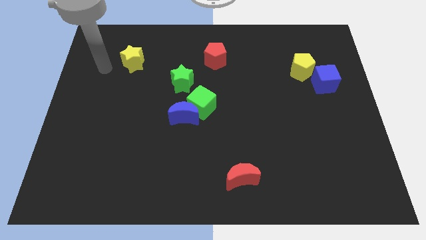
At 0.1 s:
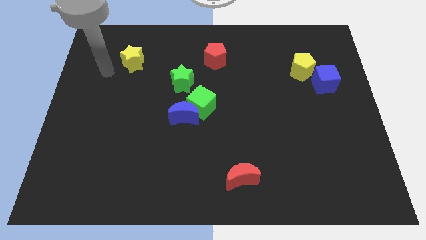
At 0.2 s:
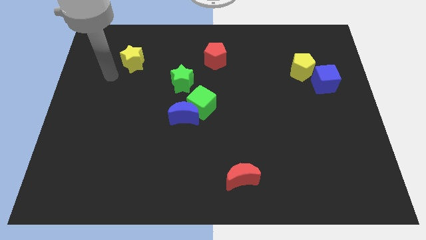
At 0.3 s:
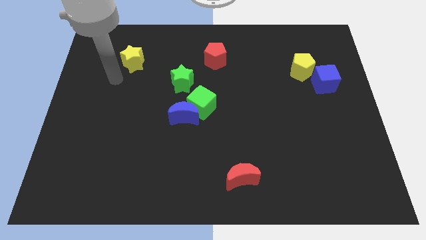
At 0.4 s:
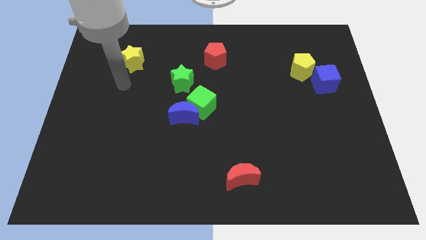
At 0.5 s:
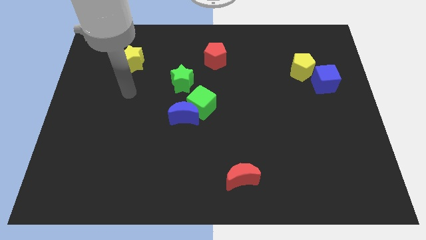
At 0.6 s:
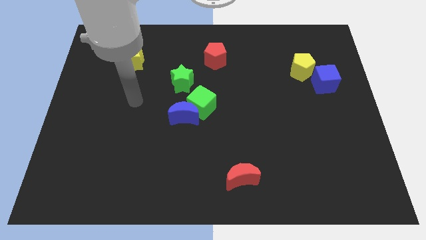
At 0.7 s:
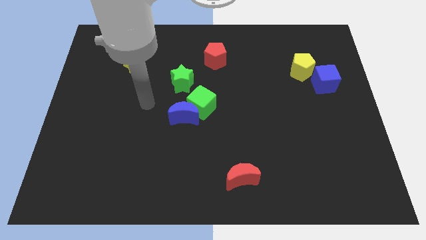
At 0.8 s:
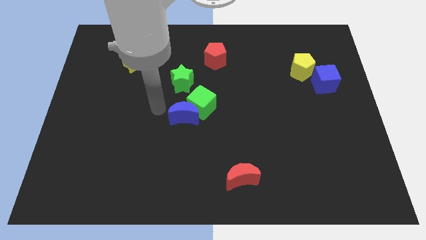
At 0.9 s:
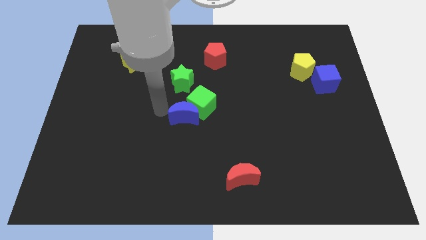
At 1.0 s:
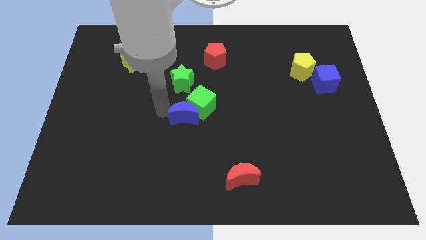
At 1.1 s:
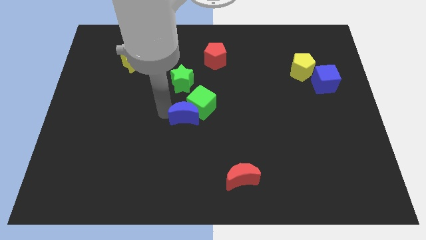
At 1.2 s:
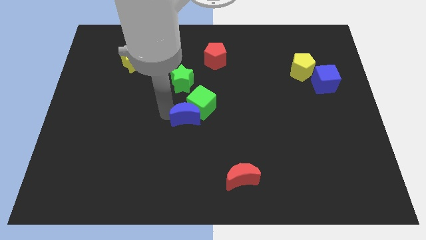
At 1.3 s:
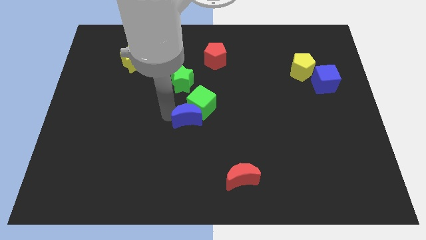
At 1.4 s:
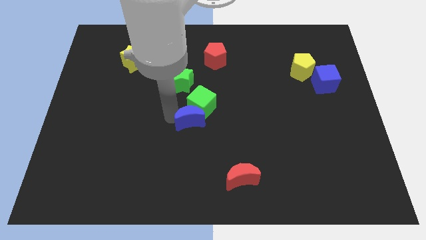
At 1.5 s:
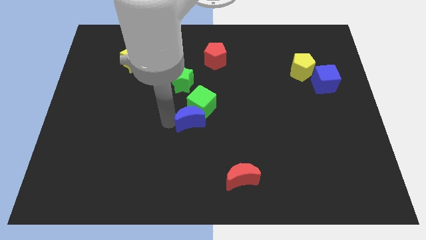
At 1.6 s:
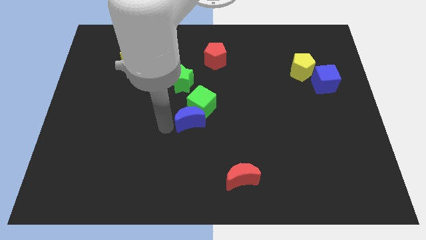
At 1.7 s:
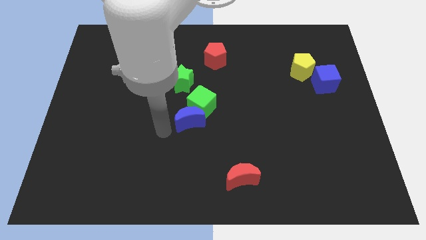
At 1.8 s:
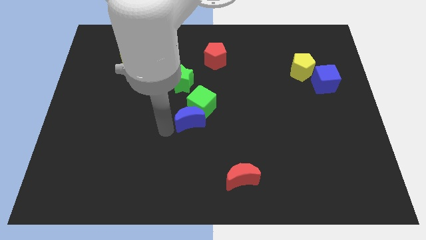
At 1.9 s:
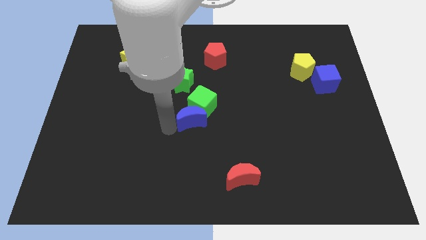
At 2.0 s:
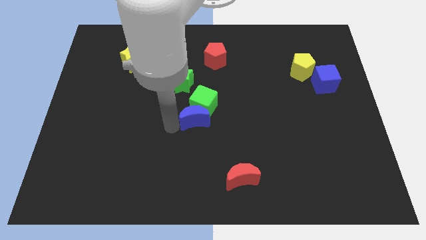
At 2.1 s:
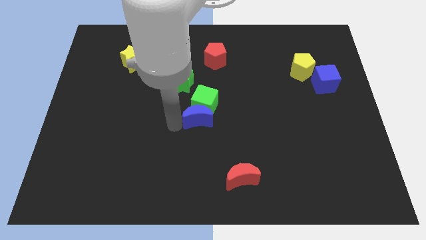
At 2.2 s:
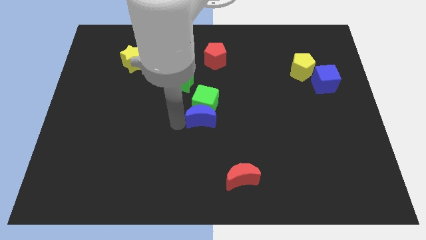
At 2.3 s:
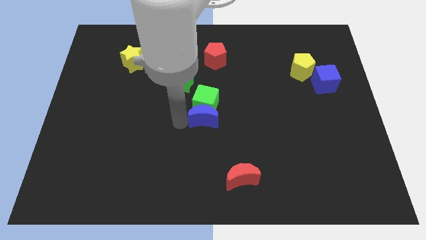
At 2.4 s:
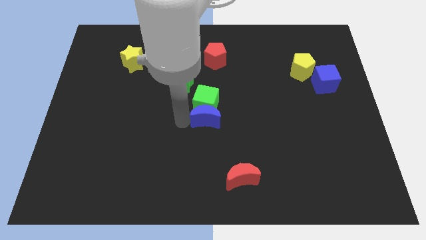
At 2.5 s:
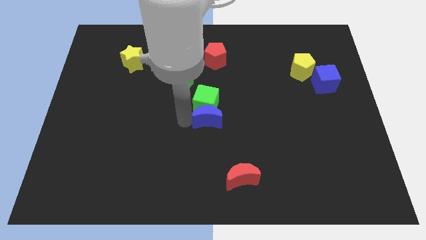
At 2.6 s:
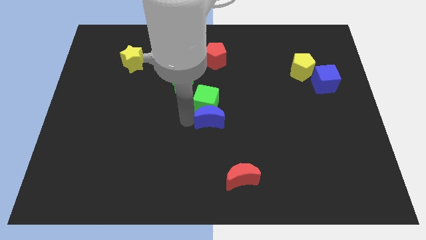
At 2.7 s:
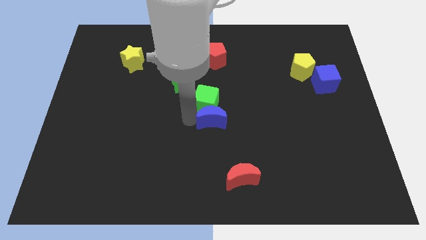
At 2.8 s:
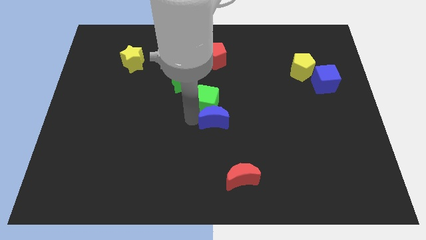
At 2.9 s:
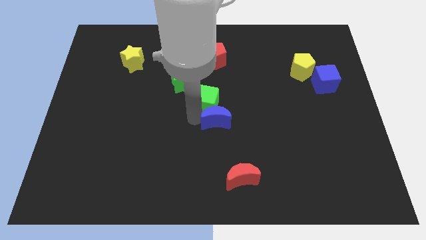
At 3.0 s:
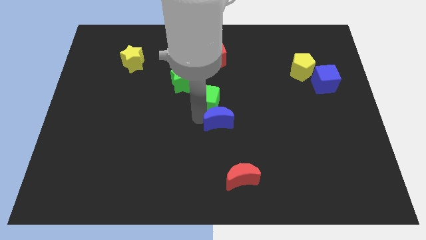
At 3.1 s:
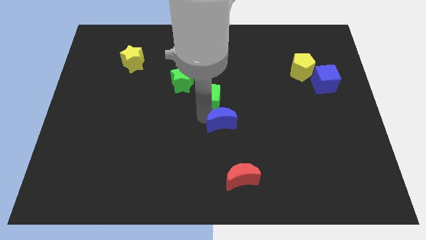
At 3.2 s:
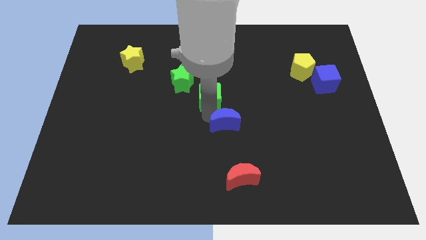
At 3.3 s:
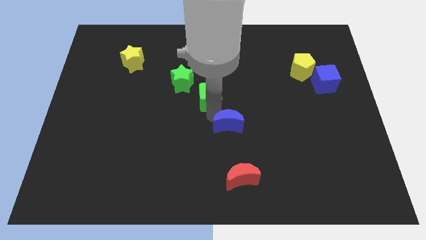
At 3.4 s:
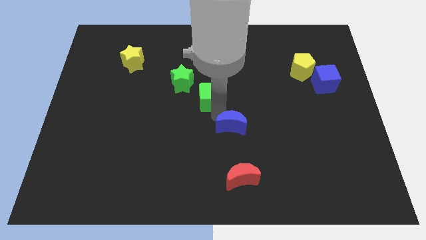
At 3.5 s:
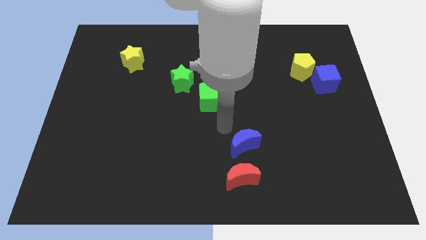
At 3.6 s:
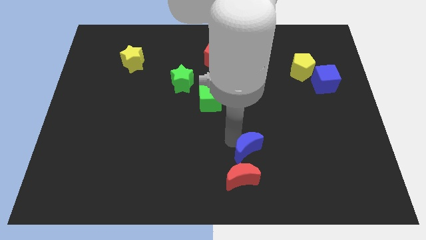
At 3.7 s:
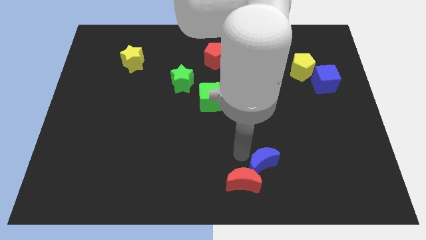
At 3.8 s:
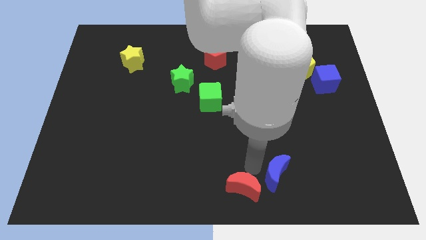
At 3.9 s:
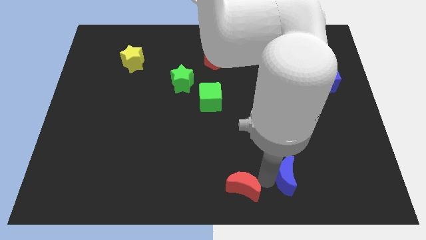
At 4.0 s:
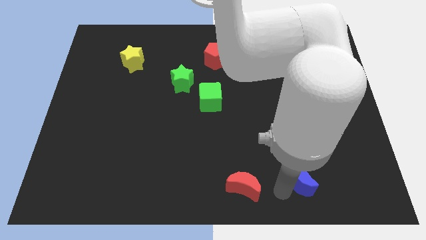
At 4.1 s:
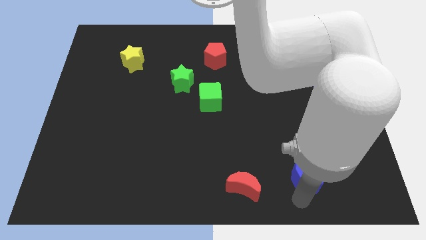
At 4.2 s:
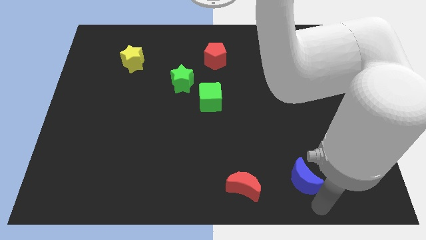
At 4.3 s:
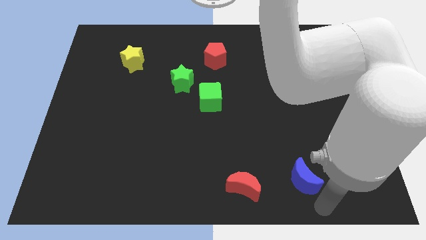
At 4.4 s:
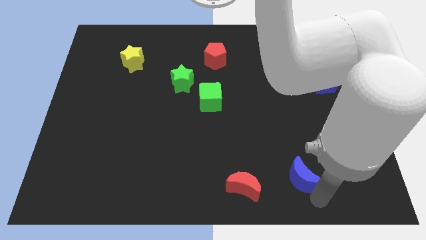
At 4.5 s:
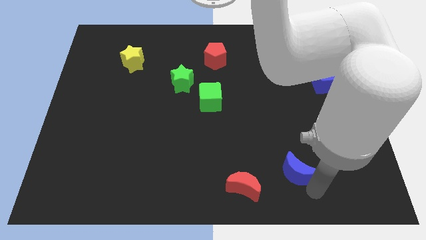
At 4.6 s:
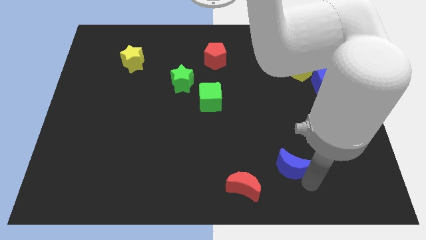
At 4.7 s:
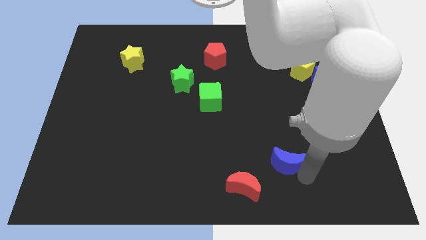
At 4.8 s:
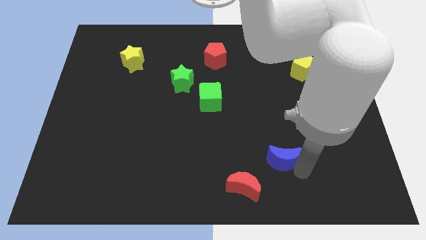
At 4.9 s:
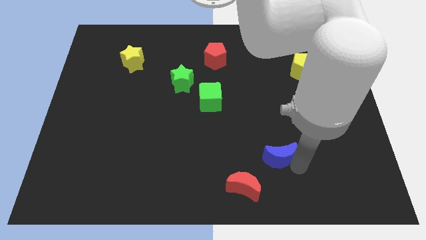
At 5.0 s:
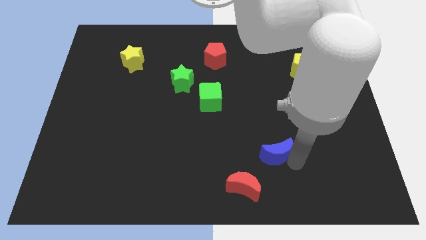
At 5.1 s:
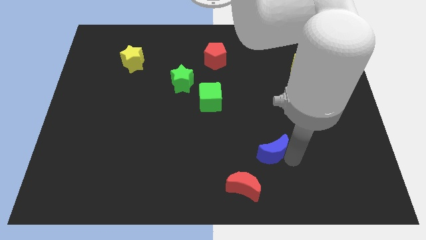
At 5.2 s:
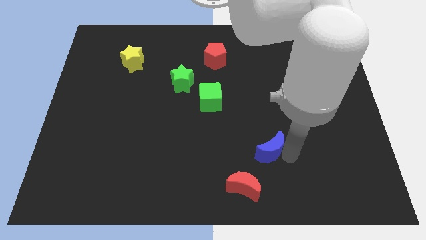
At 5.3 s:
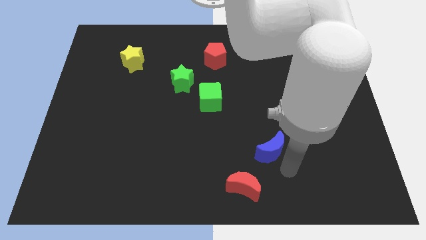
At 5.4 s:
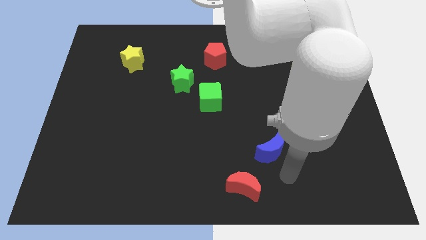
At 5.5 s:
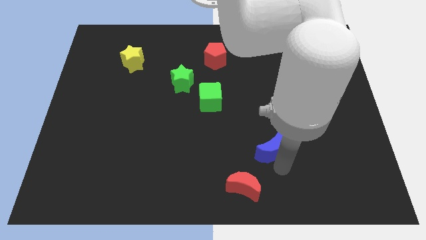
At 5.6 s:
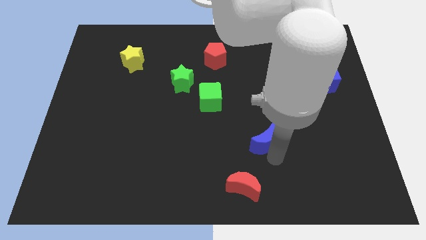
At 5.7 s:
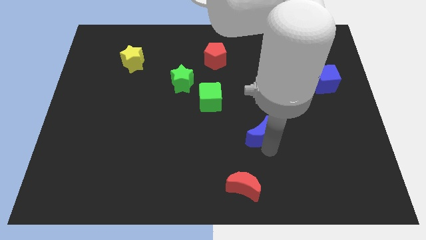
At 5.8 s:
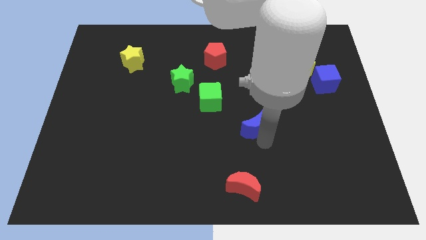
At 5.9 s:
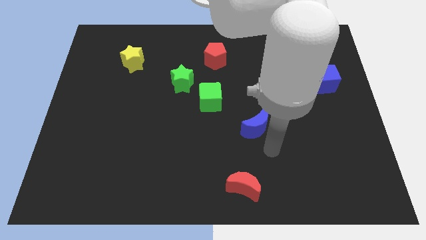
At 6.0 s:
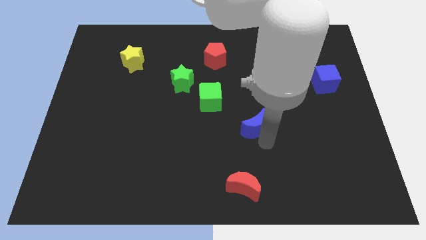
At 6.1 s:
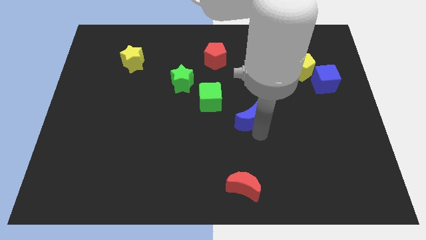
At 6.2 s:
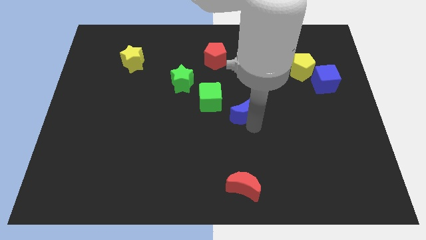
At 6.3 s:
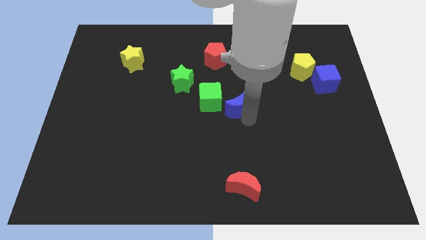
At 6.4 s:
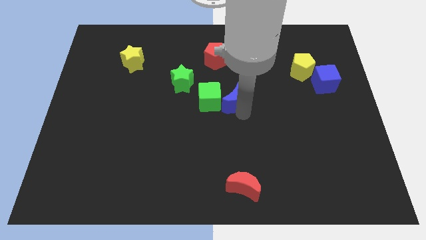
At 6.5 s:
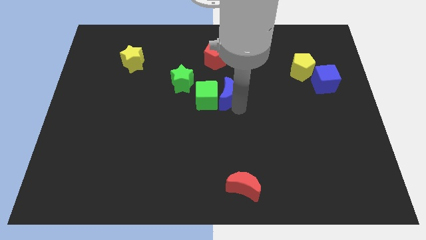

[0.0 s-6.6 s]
slide the blue moon right of the green star

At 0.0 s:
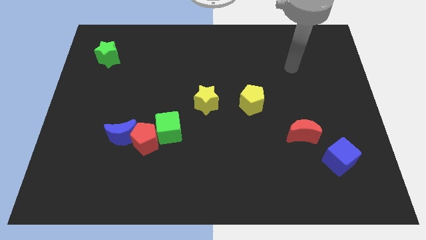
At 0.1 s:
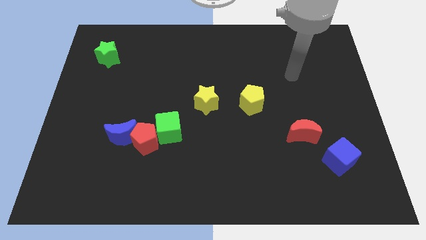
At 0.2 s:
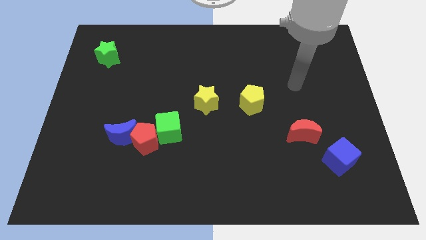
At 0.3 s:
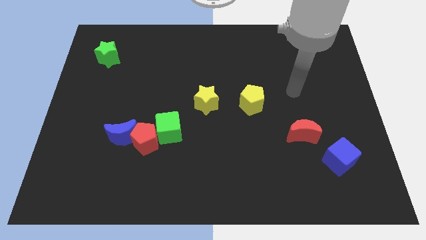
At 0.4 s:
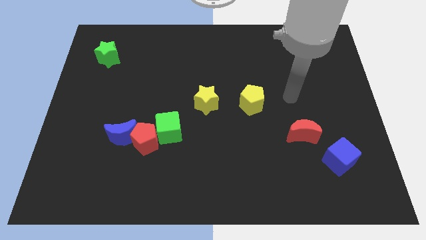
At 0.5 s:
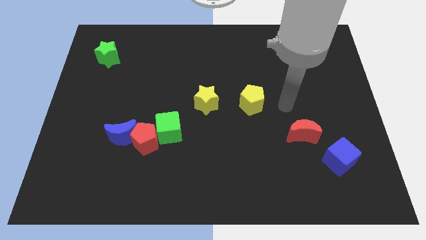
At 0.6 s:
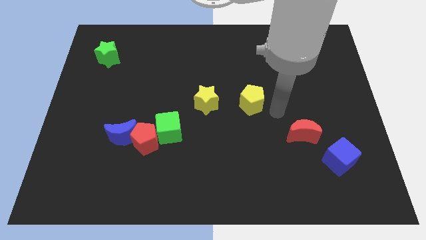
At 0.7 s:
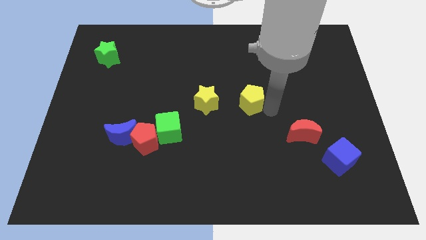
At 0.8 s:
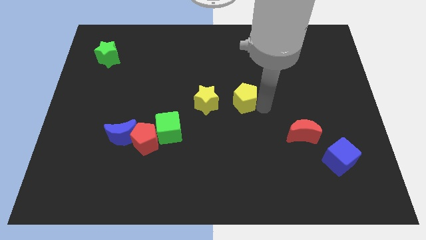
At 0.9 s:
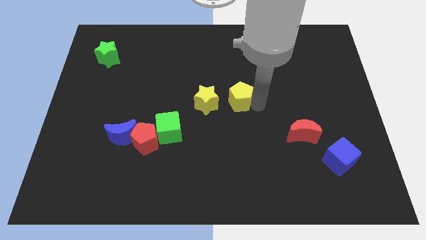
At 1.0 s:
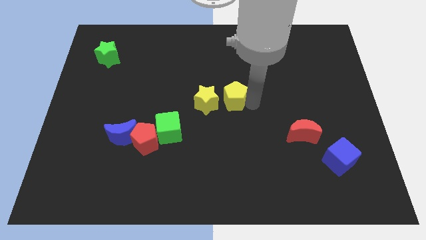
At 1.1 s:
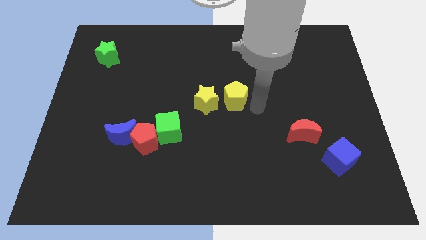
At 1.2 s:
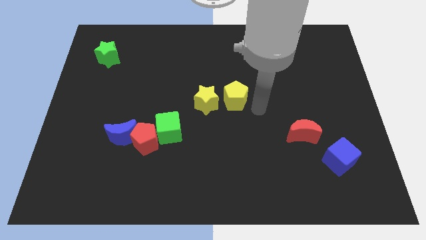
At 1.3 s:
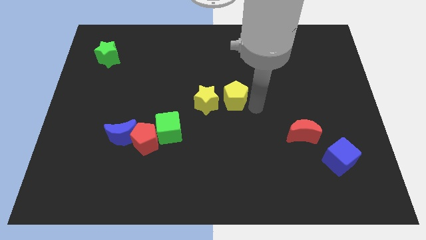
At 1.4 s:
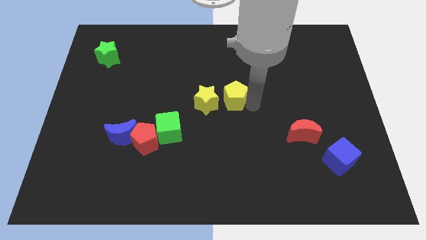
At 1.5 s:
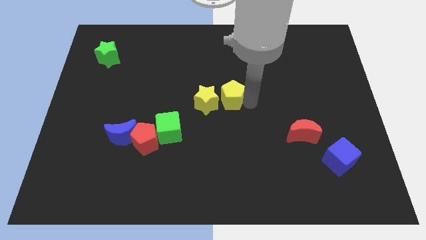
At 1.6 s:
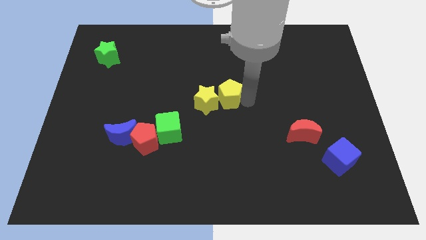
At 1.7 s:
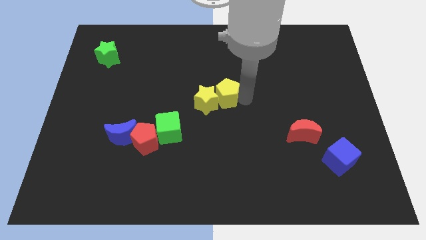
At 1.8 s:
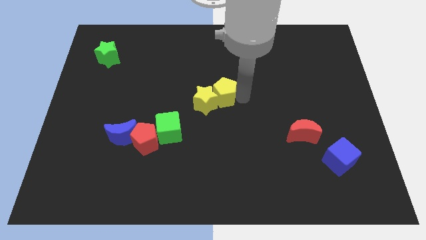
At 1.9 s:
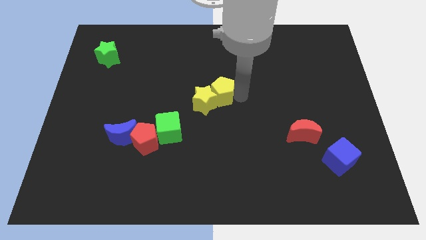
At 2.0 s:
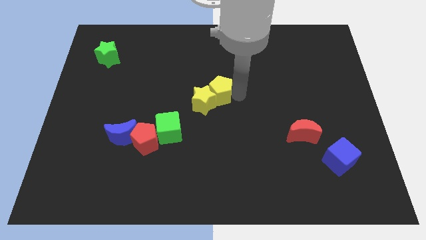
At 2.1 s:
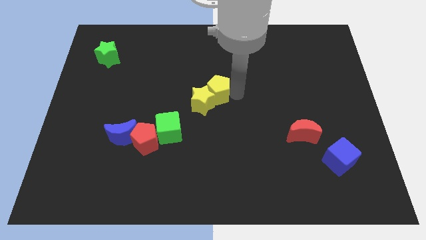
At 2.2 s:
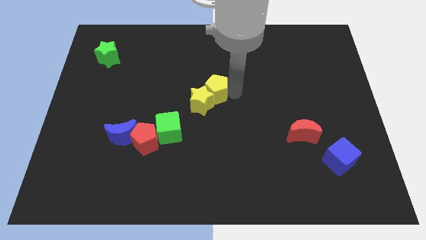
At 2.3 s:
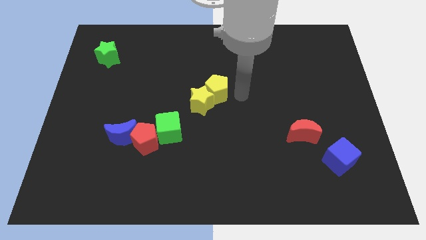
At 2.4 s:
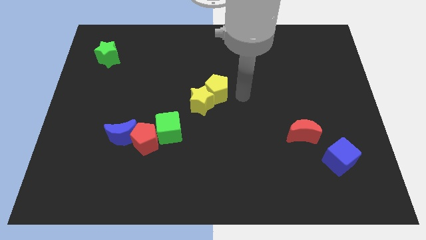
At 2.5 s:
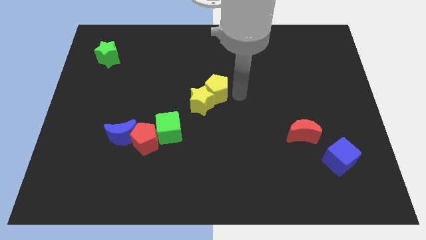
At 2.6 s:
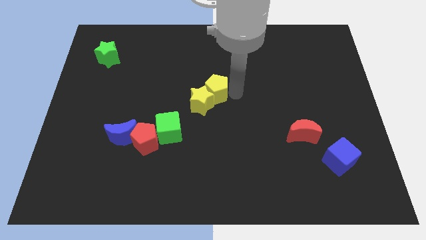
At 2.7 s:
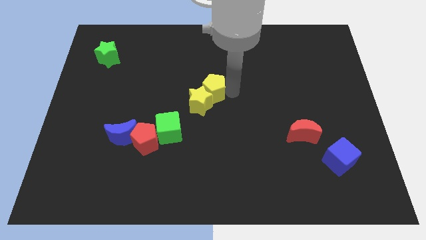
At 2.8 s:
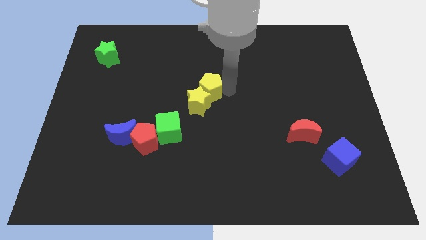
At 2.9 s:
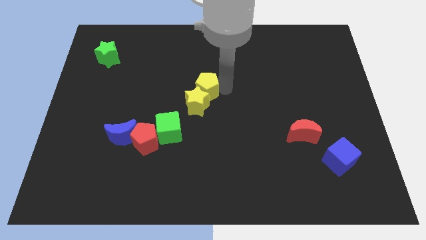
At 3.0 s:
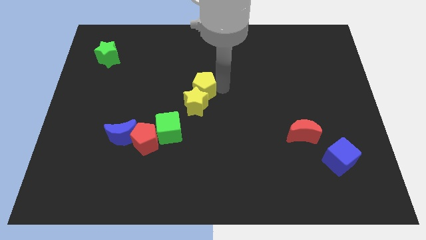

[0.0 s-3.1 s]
put the yellow pentagon to the top left of the yellow star
